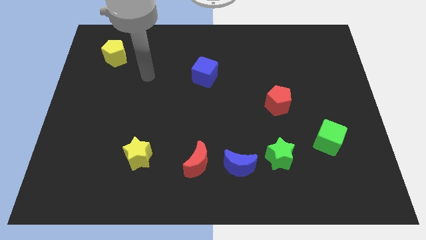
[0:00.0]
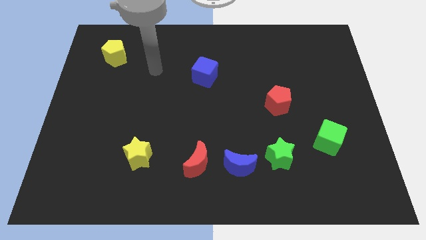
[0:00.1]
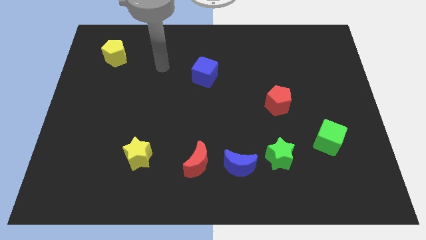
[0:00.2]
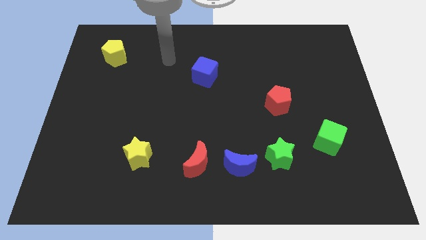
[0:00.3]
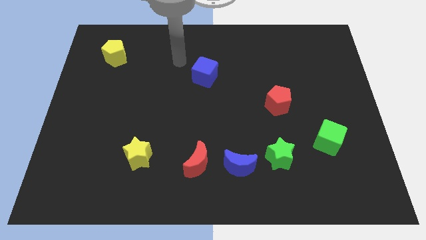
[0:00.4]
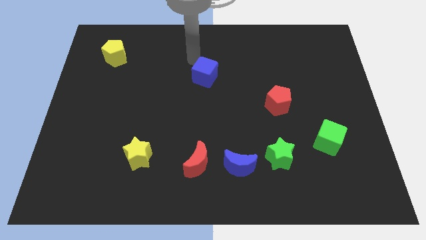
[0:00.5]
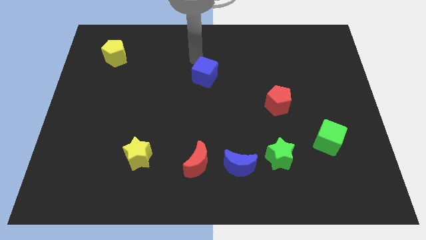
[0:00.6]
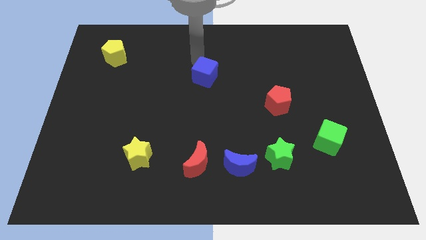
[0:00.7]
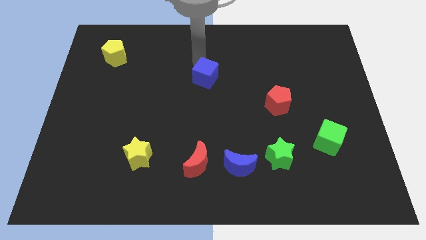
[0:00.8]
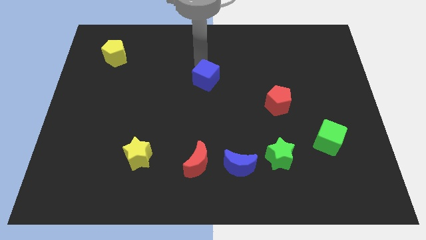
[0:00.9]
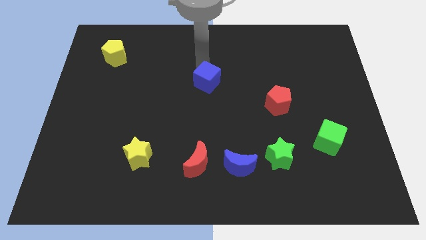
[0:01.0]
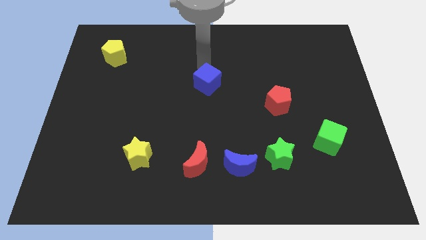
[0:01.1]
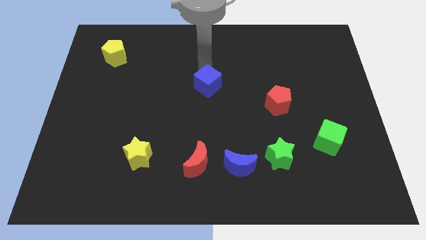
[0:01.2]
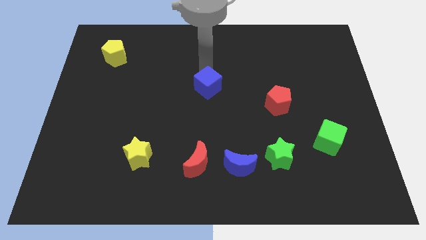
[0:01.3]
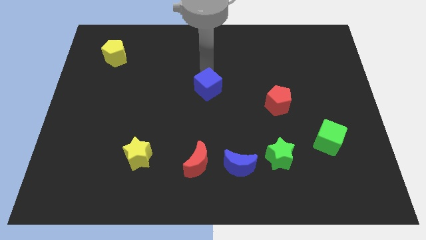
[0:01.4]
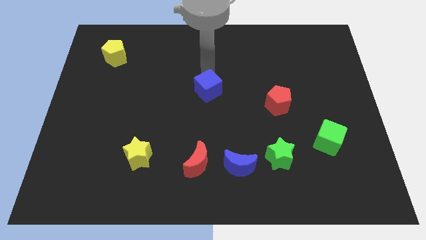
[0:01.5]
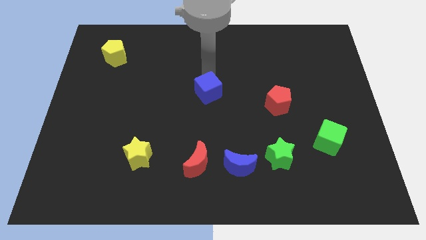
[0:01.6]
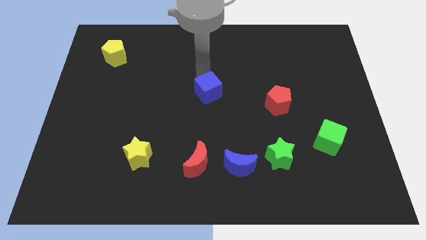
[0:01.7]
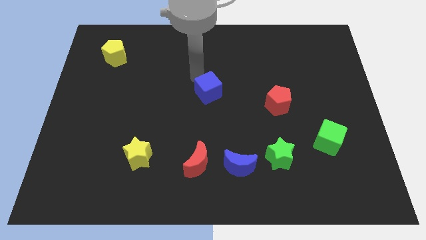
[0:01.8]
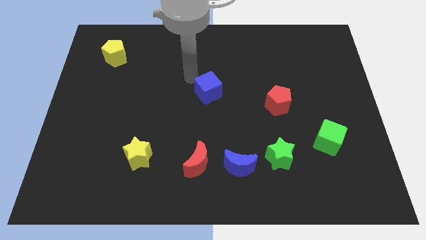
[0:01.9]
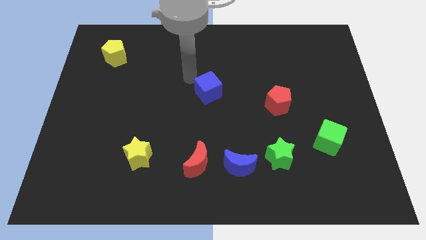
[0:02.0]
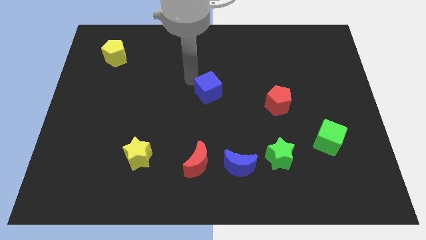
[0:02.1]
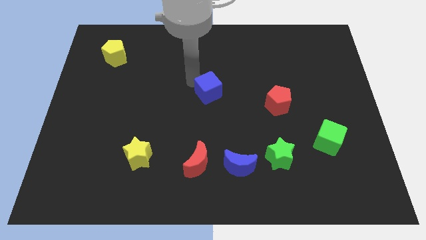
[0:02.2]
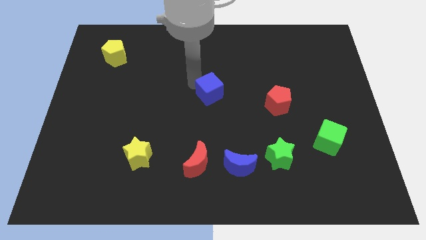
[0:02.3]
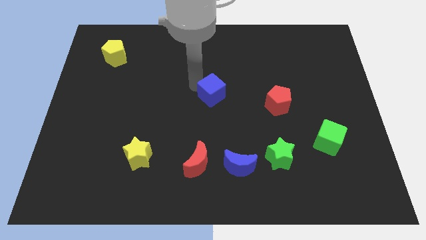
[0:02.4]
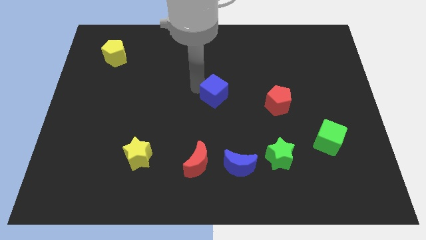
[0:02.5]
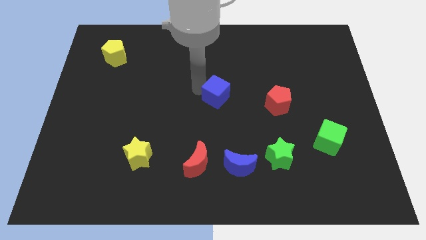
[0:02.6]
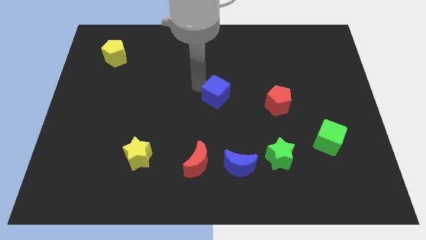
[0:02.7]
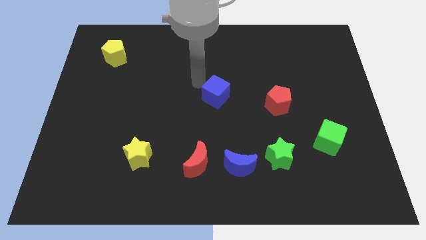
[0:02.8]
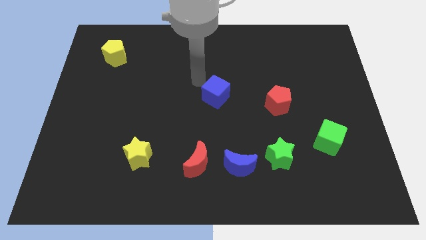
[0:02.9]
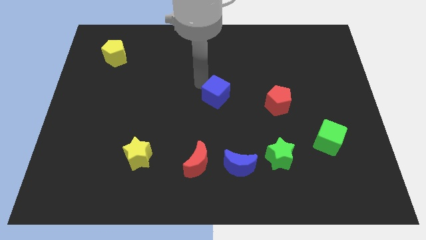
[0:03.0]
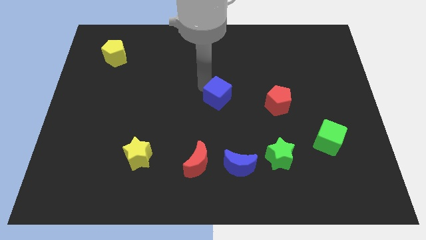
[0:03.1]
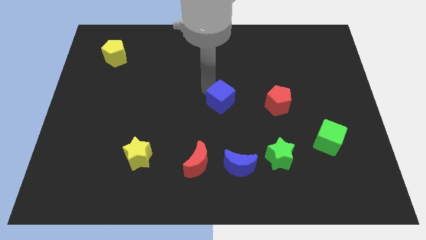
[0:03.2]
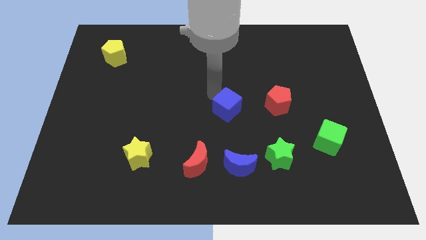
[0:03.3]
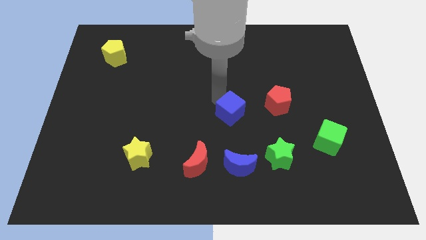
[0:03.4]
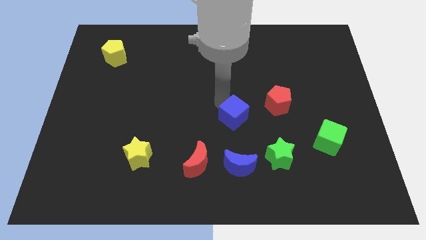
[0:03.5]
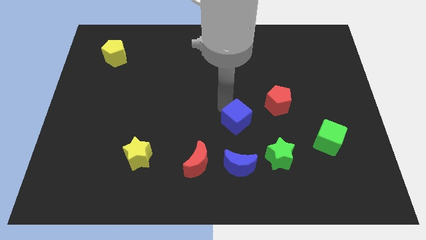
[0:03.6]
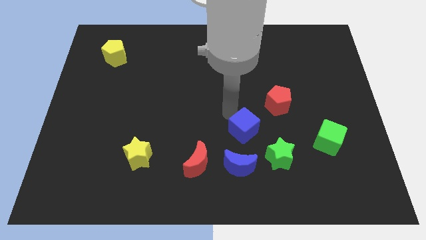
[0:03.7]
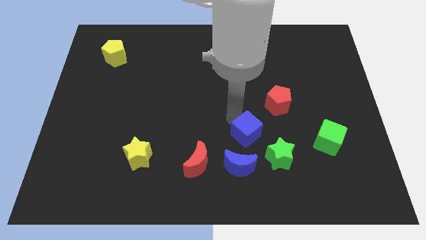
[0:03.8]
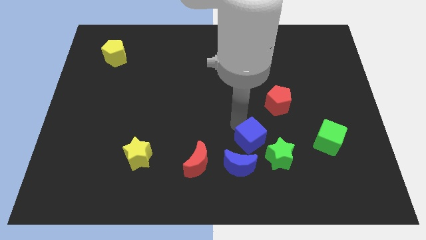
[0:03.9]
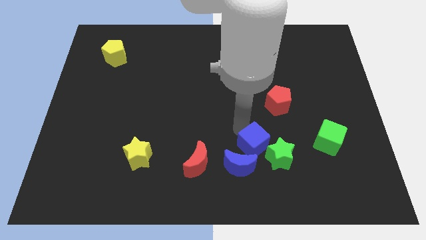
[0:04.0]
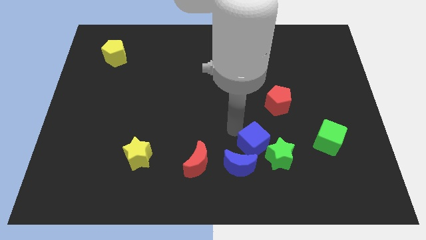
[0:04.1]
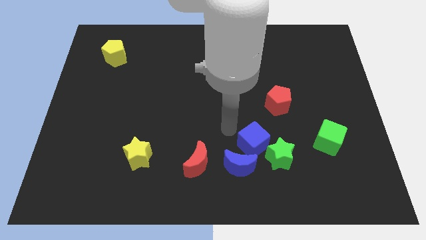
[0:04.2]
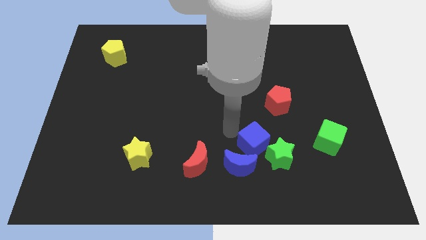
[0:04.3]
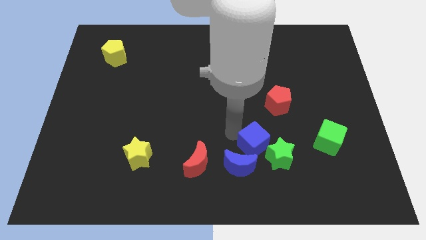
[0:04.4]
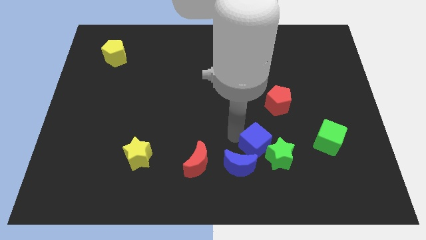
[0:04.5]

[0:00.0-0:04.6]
put the blue cube next to the green star

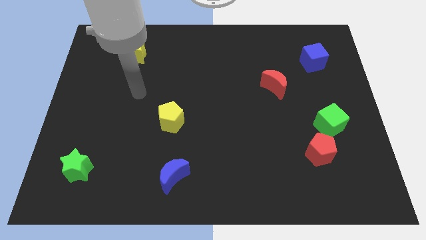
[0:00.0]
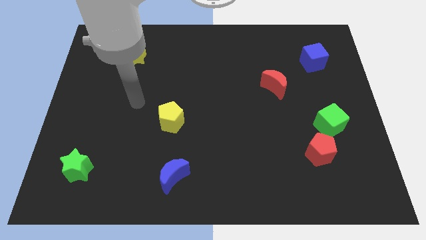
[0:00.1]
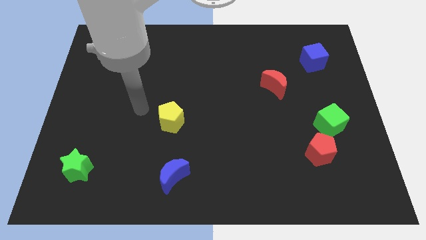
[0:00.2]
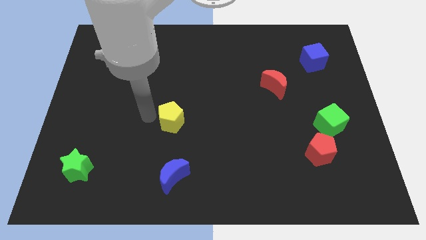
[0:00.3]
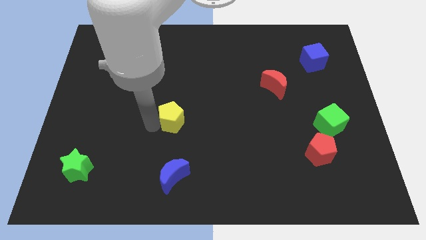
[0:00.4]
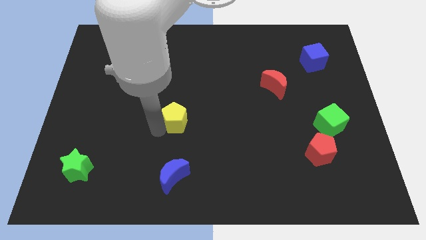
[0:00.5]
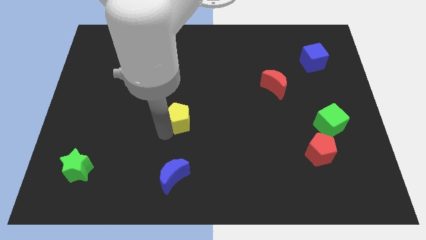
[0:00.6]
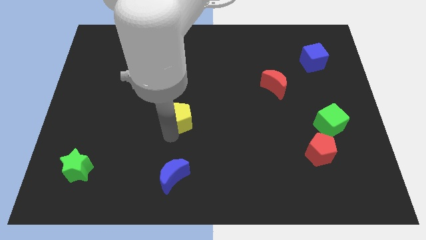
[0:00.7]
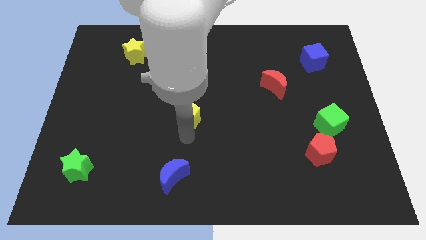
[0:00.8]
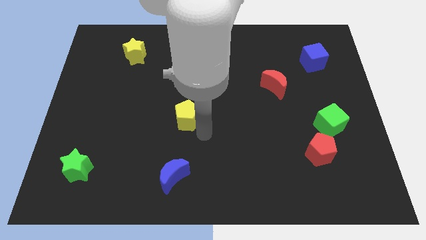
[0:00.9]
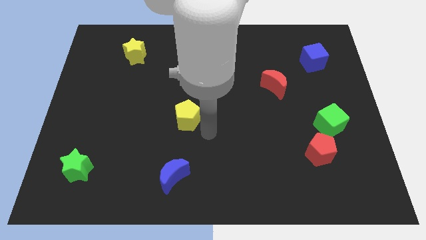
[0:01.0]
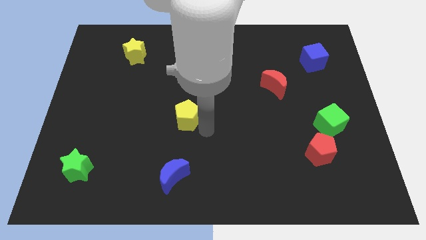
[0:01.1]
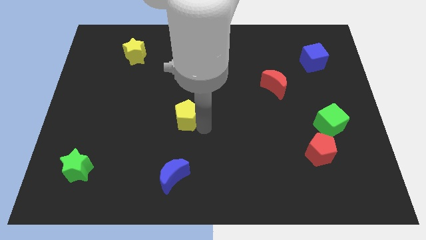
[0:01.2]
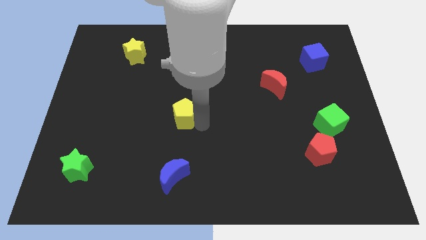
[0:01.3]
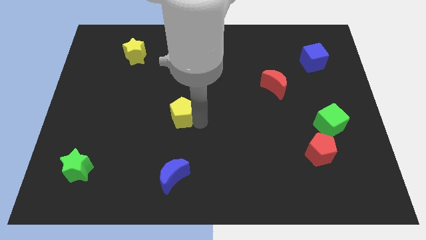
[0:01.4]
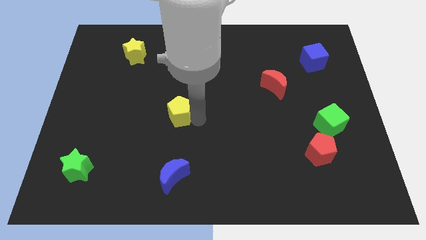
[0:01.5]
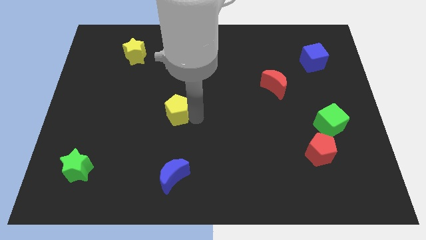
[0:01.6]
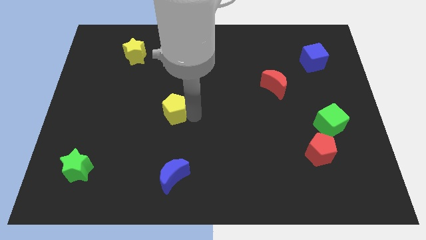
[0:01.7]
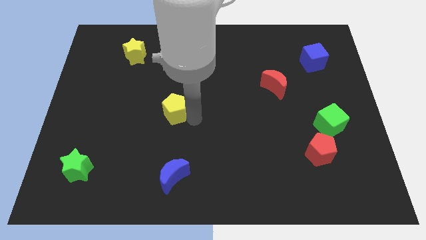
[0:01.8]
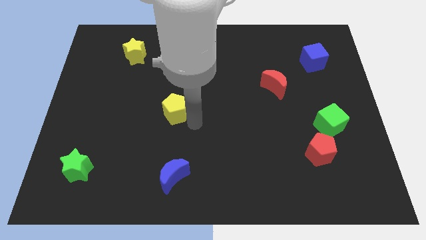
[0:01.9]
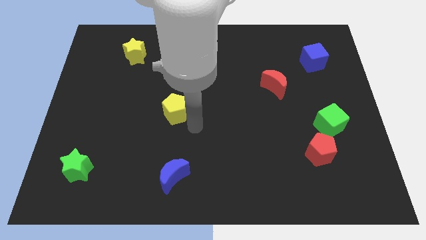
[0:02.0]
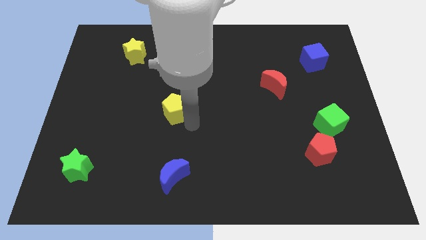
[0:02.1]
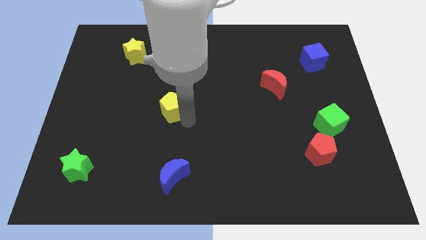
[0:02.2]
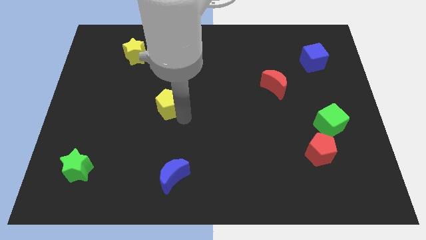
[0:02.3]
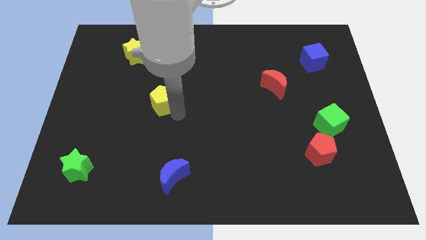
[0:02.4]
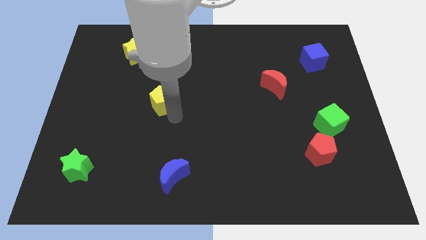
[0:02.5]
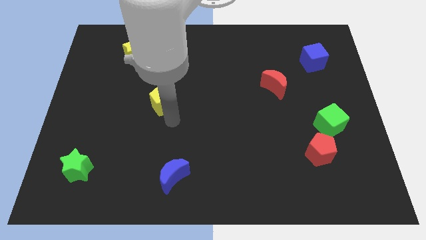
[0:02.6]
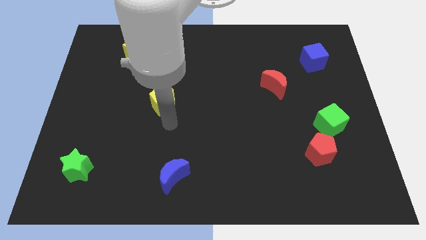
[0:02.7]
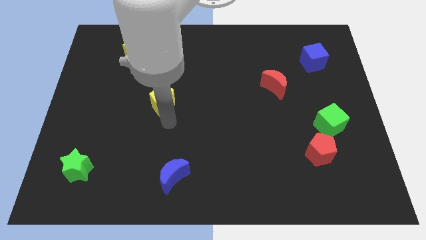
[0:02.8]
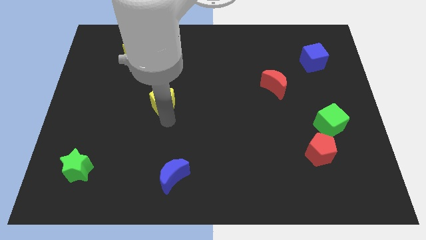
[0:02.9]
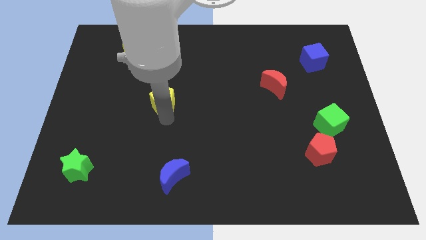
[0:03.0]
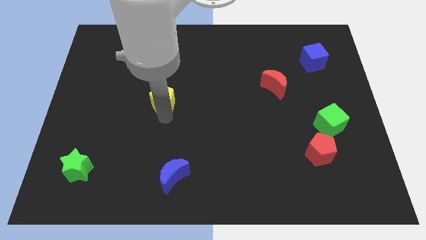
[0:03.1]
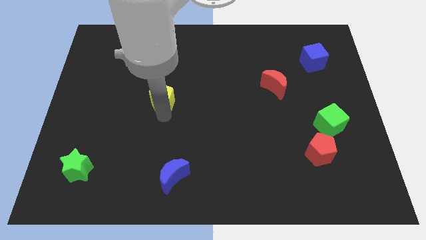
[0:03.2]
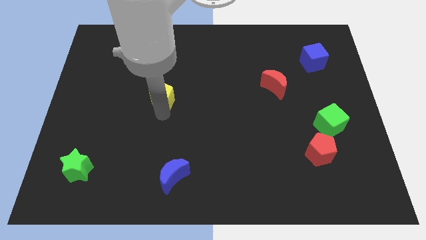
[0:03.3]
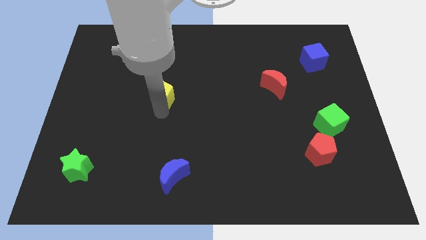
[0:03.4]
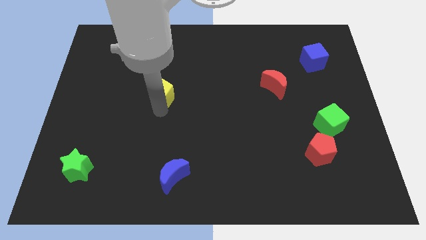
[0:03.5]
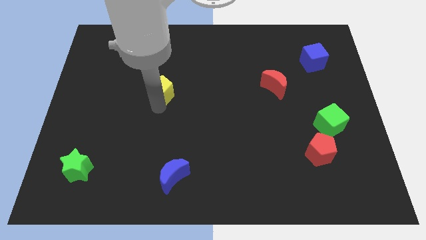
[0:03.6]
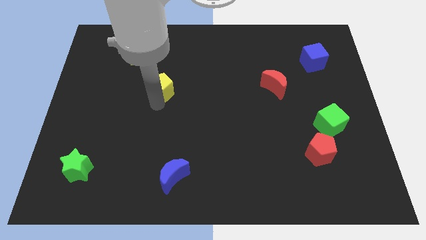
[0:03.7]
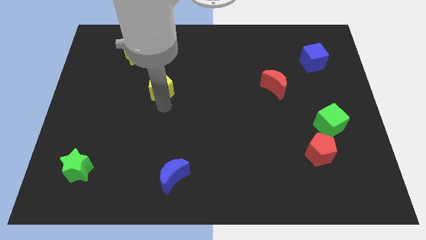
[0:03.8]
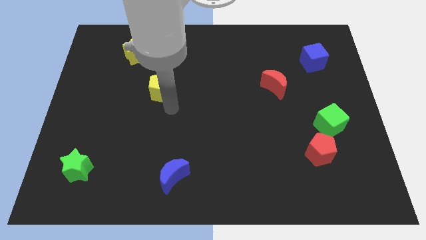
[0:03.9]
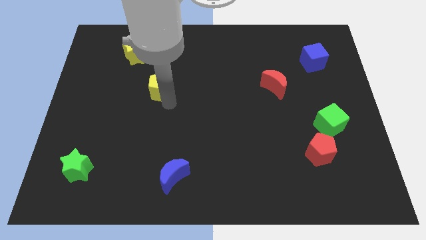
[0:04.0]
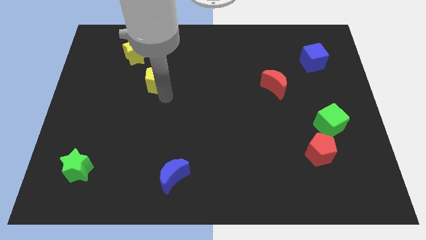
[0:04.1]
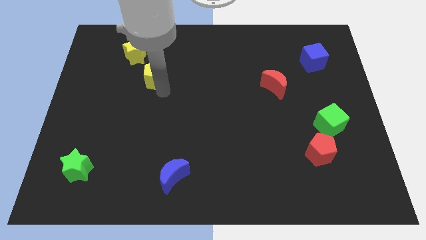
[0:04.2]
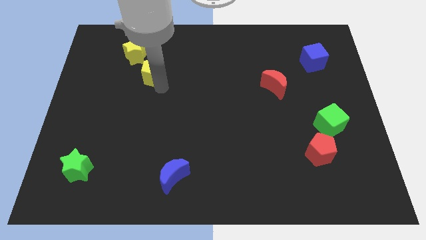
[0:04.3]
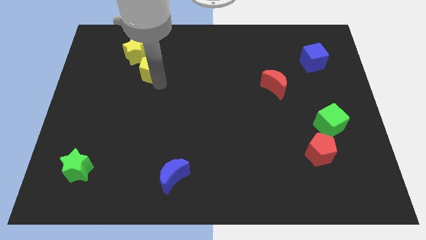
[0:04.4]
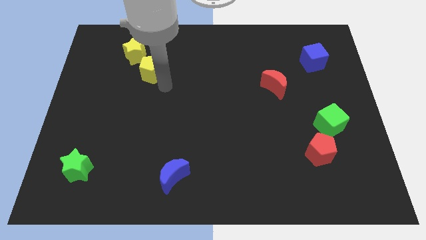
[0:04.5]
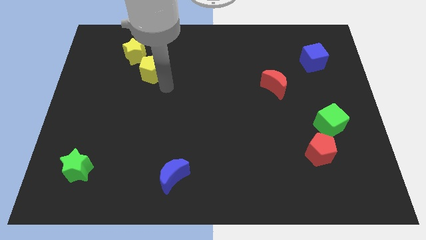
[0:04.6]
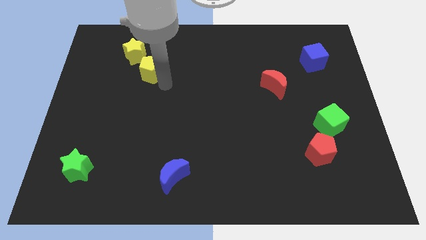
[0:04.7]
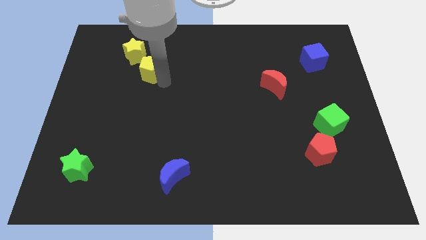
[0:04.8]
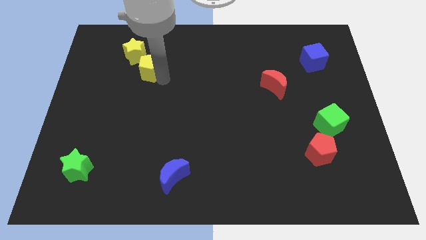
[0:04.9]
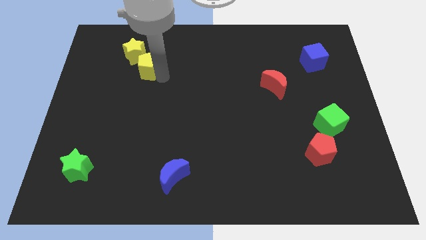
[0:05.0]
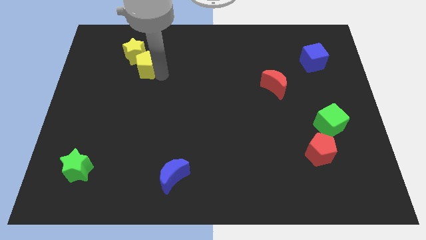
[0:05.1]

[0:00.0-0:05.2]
move the yellow pentagon next to the yellow star
